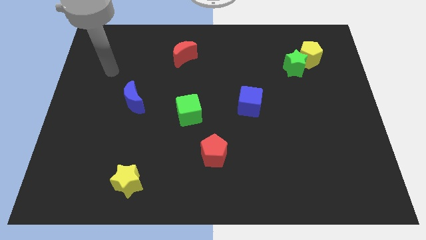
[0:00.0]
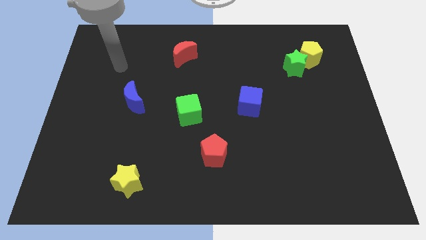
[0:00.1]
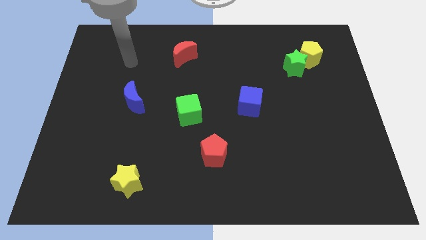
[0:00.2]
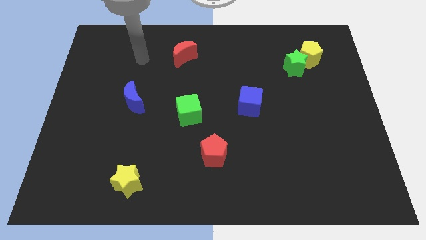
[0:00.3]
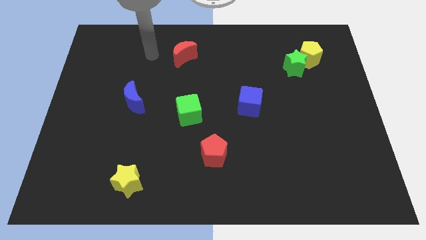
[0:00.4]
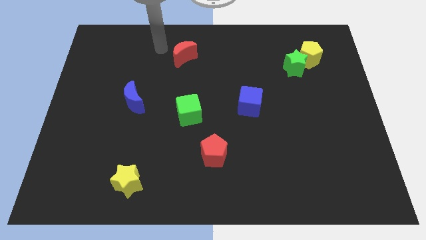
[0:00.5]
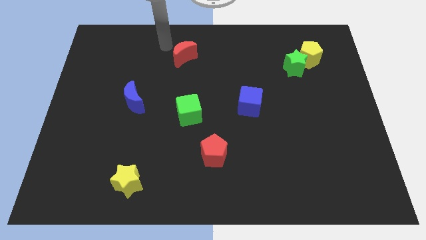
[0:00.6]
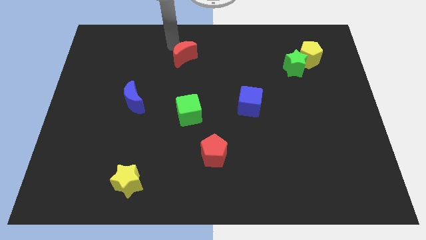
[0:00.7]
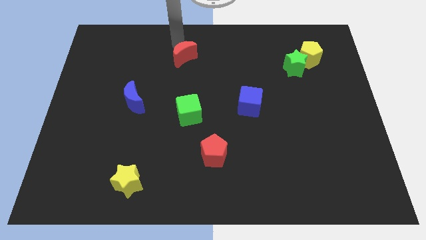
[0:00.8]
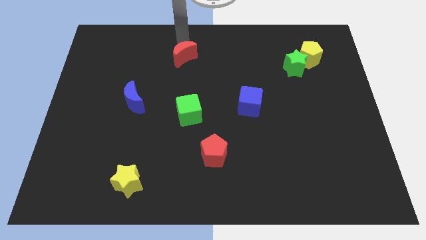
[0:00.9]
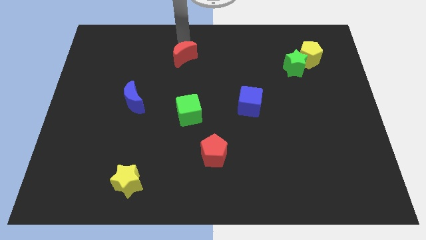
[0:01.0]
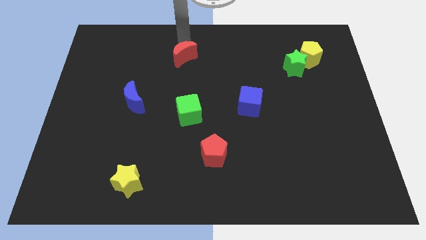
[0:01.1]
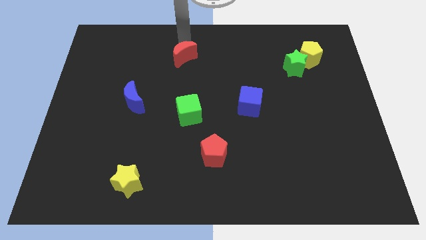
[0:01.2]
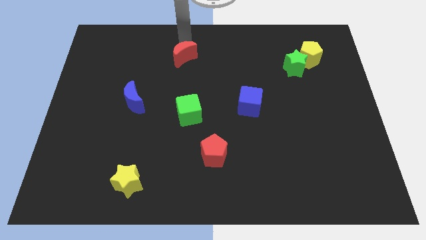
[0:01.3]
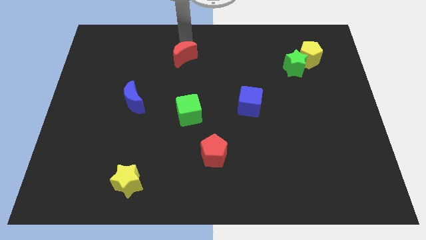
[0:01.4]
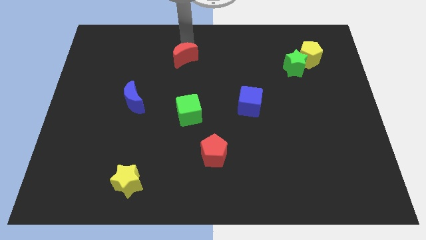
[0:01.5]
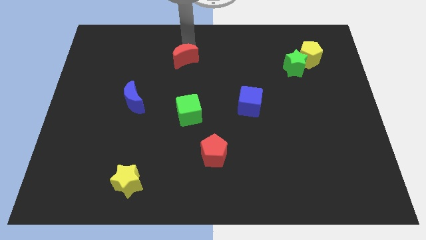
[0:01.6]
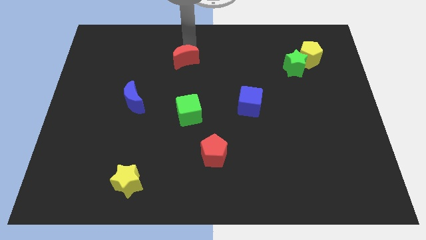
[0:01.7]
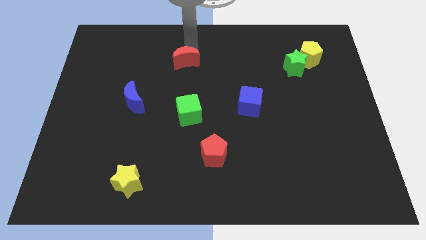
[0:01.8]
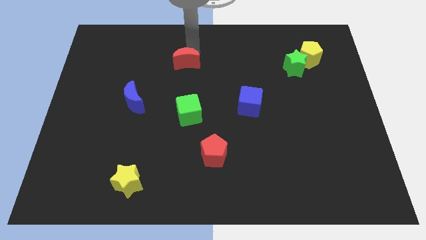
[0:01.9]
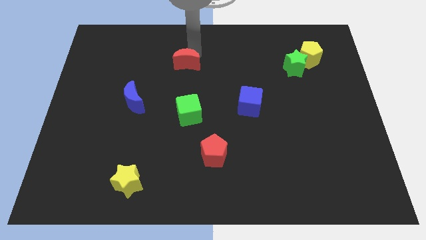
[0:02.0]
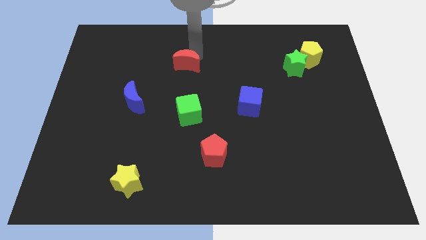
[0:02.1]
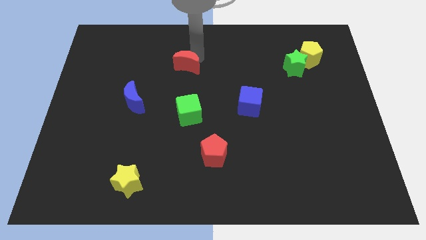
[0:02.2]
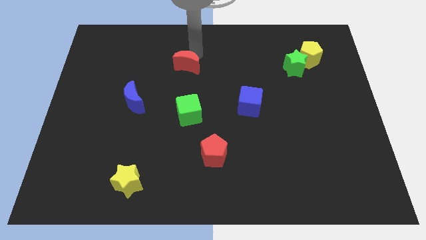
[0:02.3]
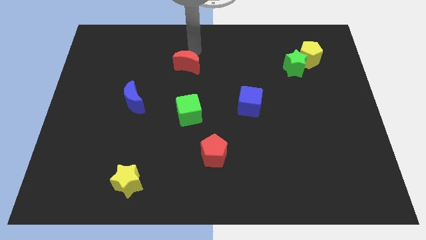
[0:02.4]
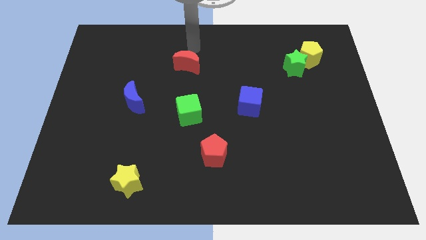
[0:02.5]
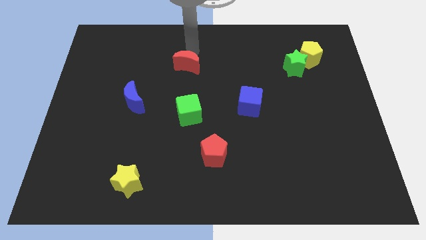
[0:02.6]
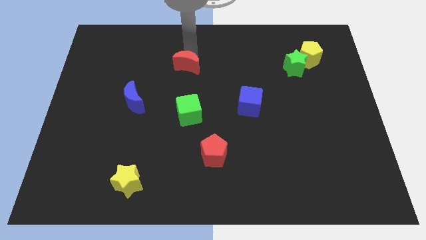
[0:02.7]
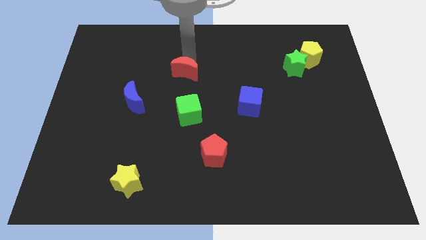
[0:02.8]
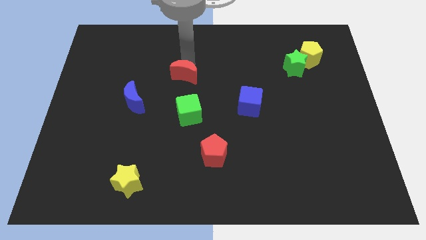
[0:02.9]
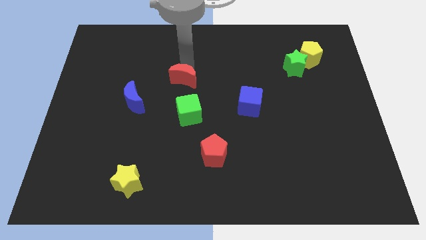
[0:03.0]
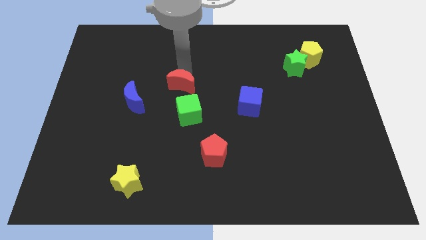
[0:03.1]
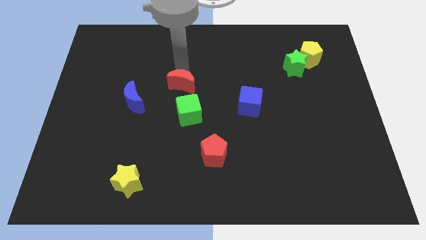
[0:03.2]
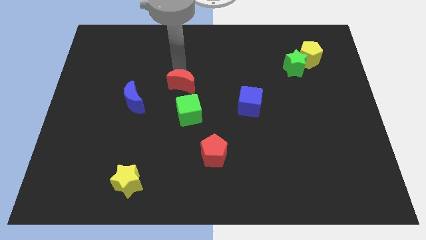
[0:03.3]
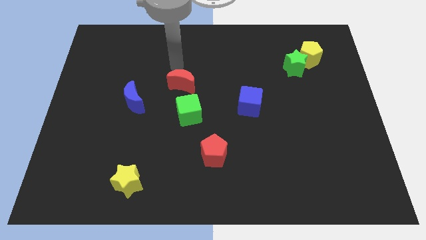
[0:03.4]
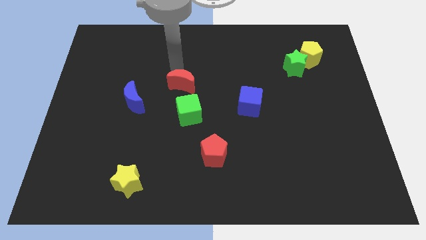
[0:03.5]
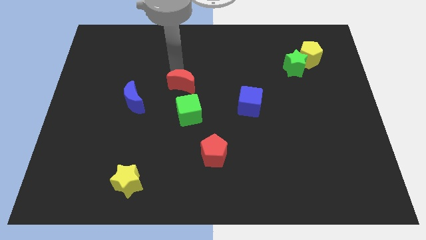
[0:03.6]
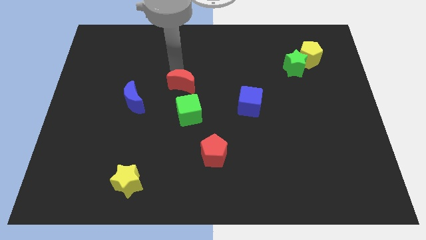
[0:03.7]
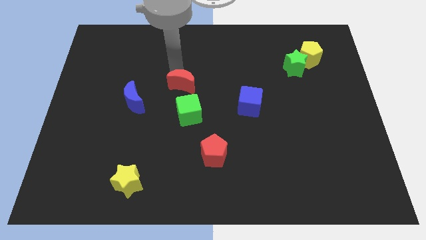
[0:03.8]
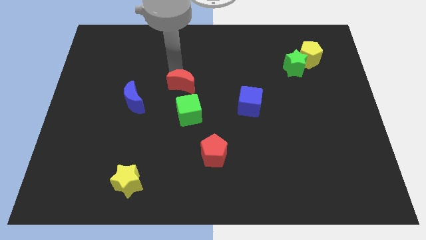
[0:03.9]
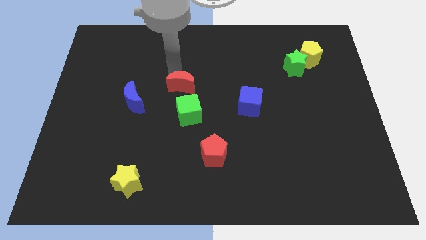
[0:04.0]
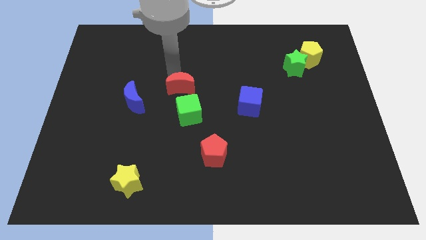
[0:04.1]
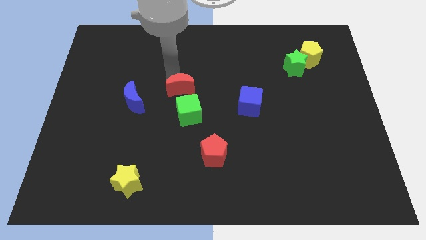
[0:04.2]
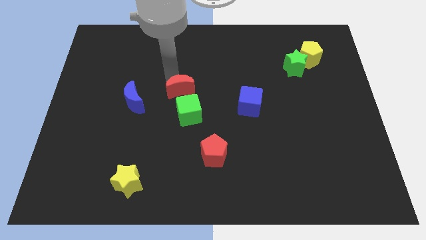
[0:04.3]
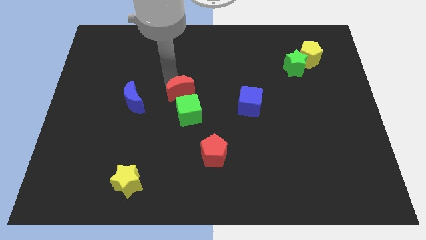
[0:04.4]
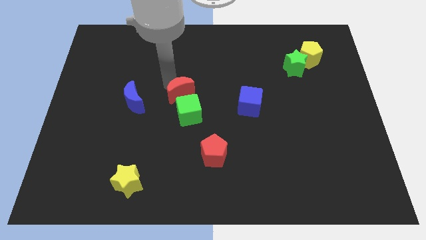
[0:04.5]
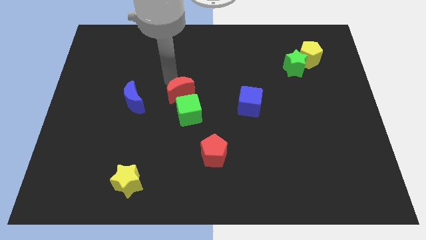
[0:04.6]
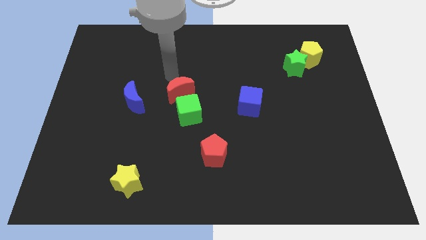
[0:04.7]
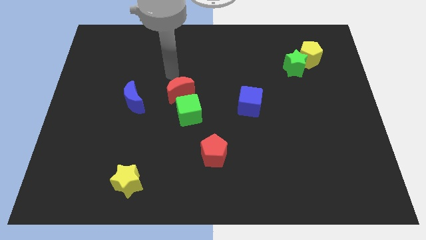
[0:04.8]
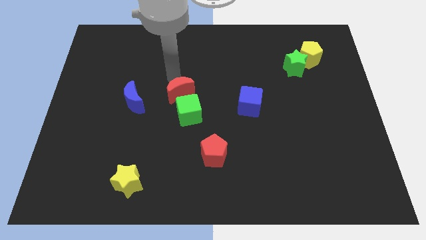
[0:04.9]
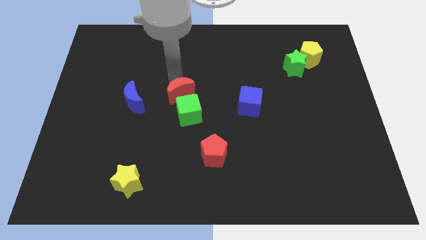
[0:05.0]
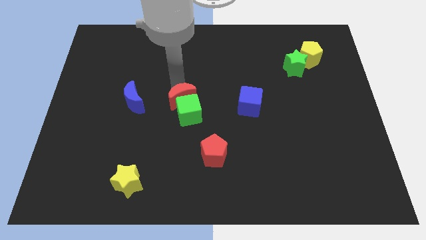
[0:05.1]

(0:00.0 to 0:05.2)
push the red moon close to the green cube

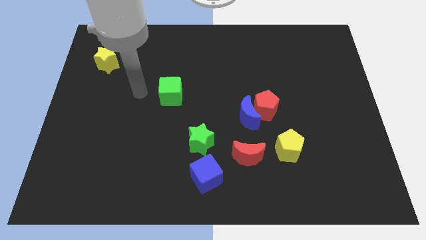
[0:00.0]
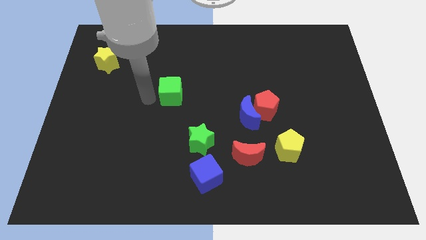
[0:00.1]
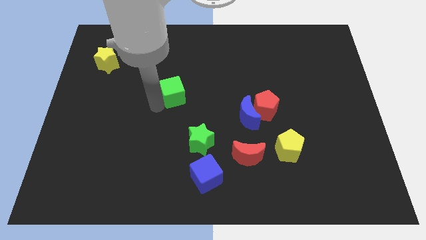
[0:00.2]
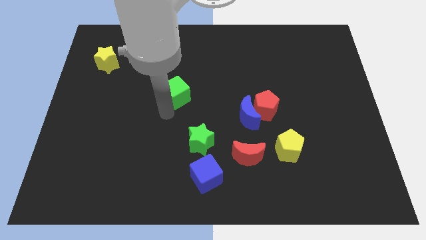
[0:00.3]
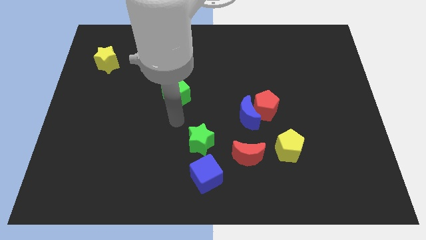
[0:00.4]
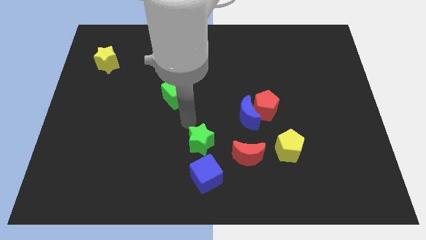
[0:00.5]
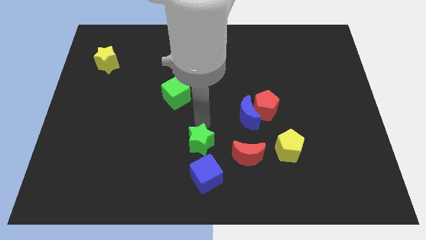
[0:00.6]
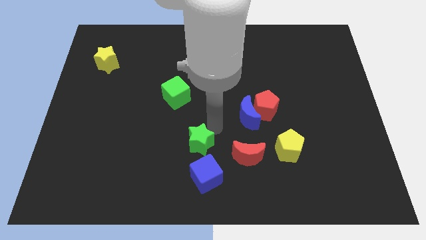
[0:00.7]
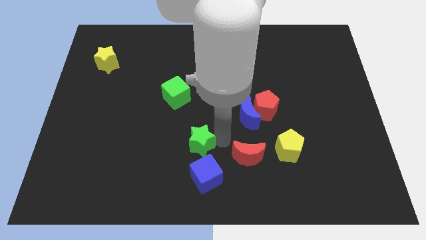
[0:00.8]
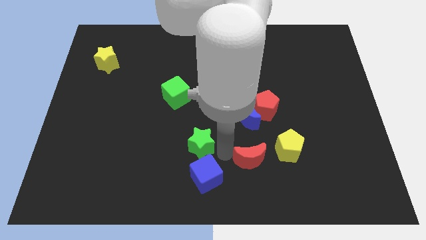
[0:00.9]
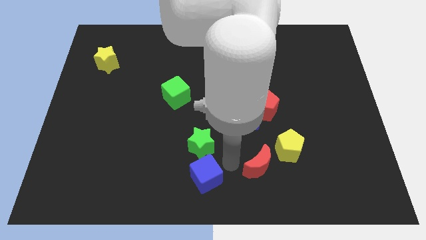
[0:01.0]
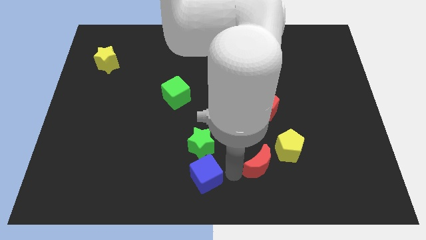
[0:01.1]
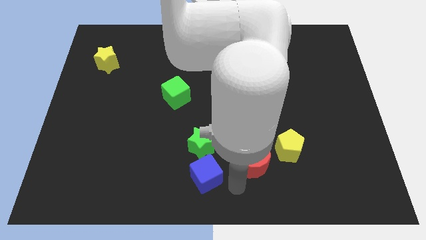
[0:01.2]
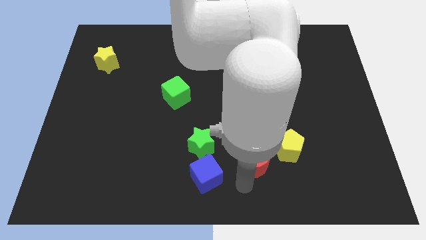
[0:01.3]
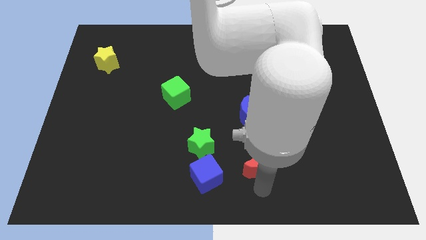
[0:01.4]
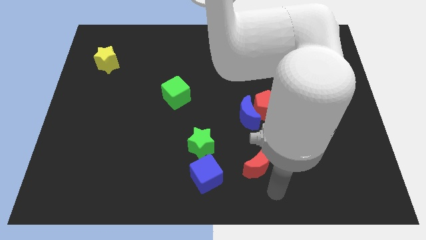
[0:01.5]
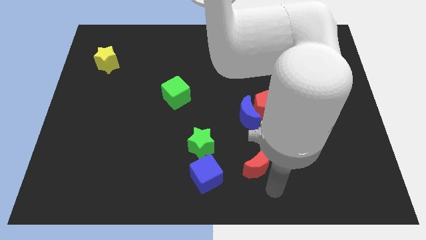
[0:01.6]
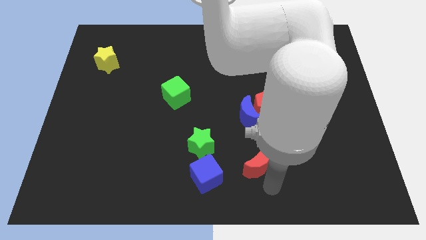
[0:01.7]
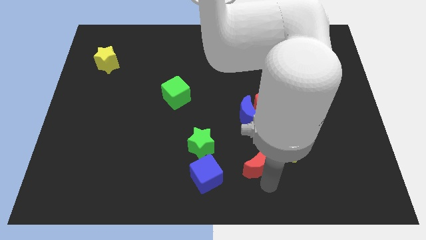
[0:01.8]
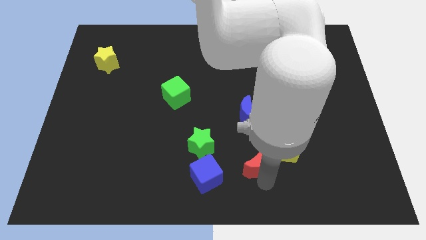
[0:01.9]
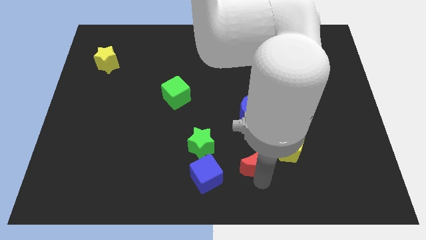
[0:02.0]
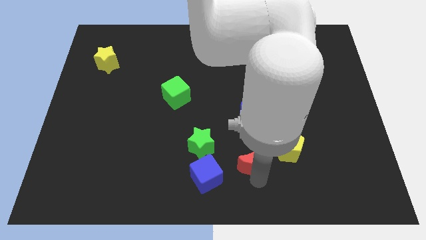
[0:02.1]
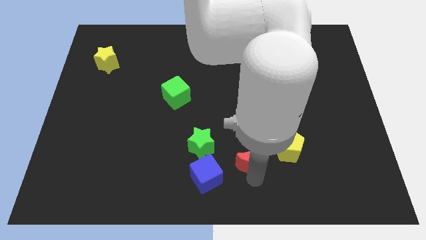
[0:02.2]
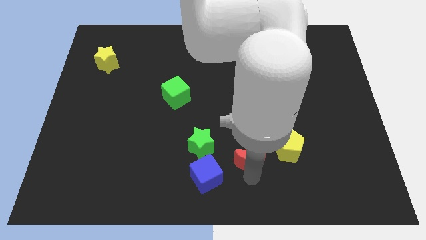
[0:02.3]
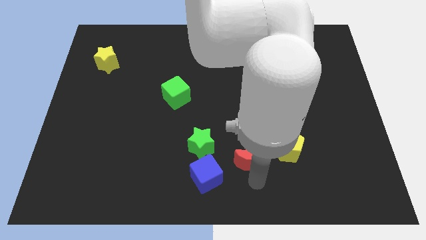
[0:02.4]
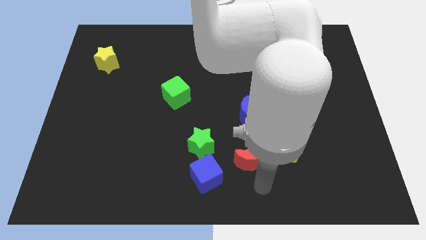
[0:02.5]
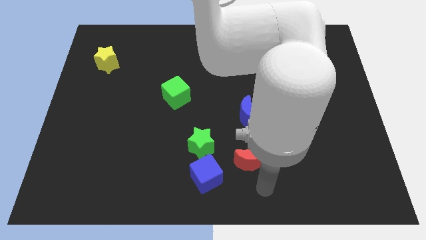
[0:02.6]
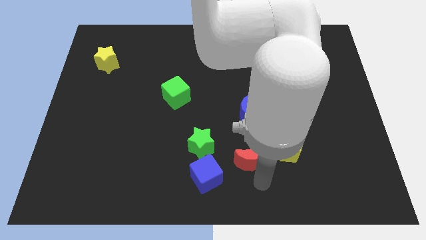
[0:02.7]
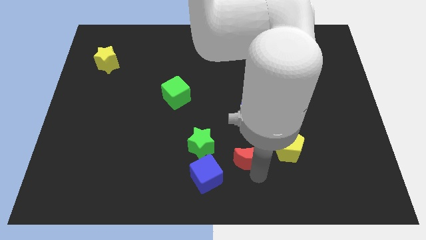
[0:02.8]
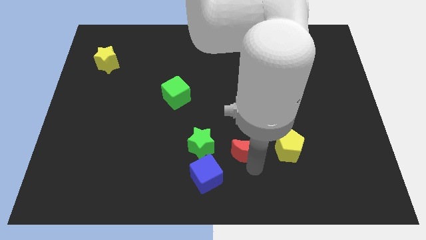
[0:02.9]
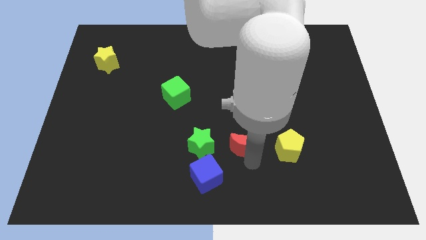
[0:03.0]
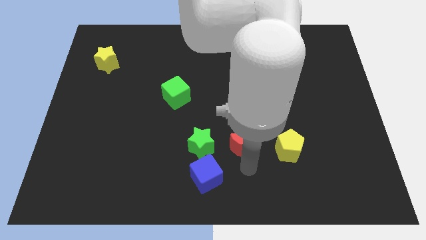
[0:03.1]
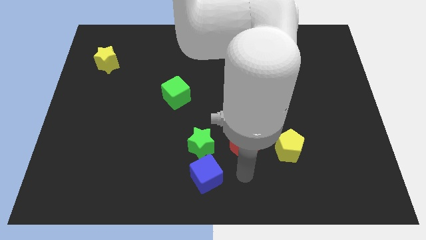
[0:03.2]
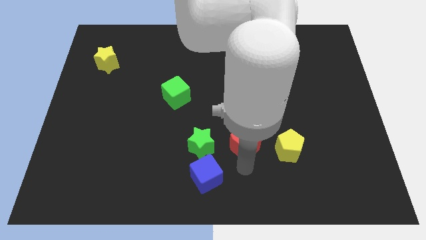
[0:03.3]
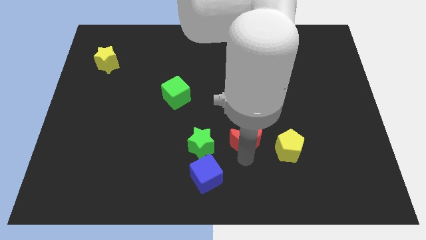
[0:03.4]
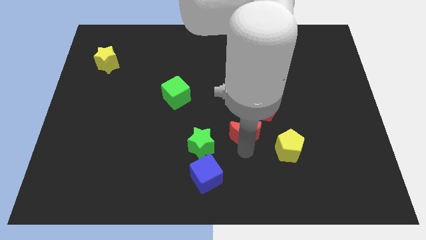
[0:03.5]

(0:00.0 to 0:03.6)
push the red moon close to the blue moon
